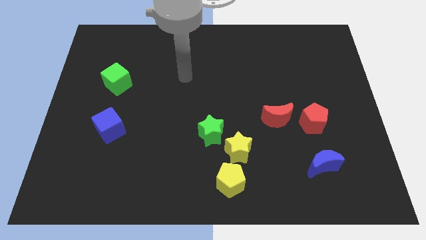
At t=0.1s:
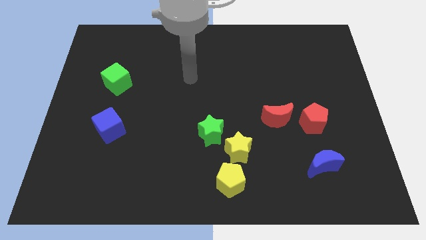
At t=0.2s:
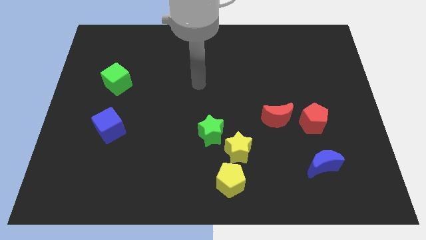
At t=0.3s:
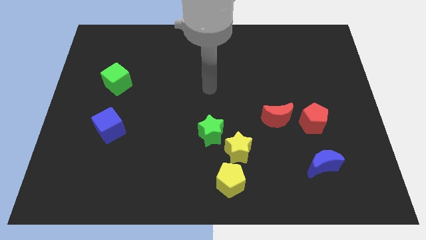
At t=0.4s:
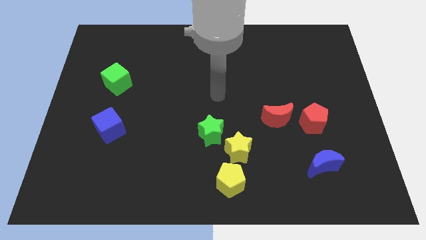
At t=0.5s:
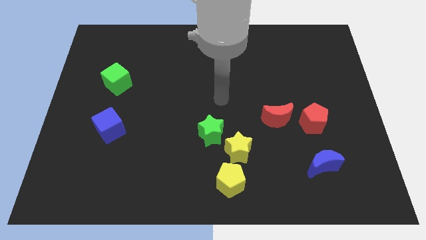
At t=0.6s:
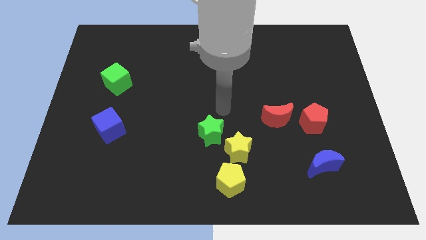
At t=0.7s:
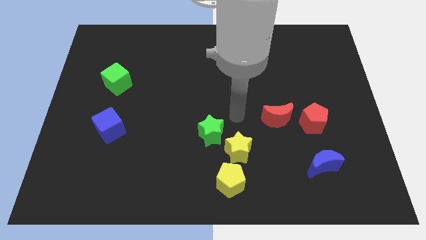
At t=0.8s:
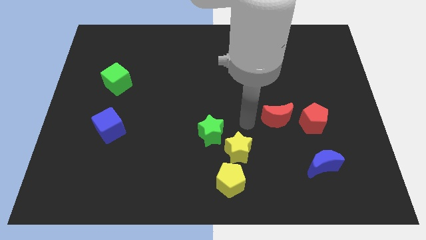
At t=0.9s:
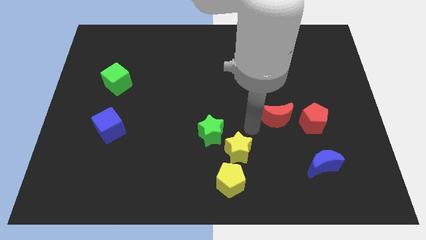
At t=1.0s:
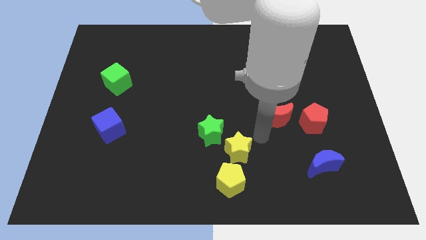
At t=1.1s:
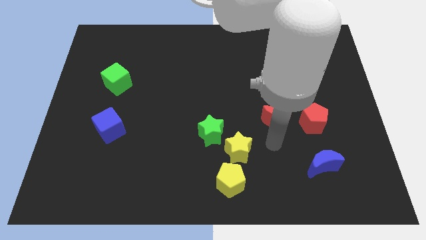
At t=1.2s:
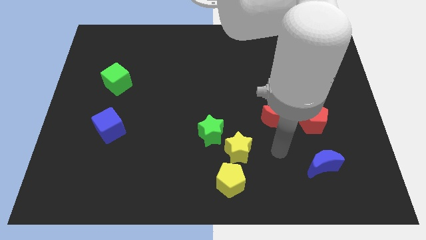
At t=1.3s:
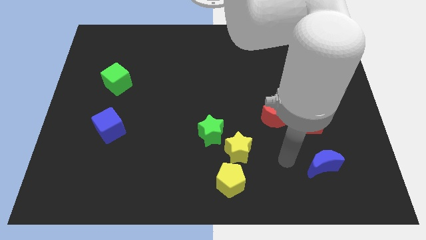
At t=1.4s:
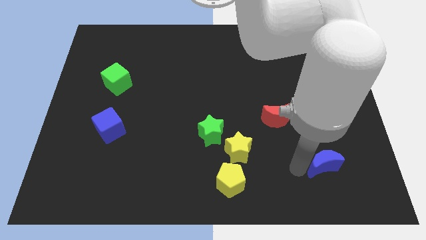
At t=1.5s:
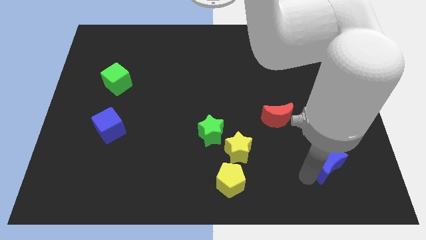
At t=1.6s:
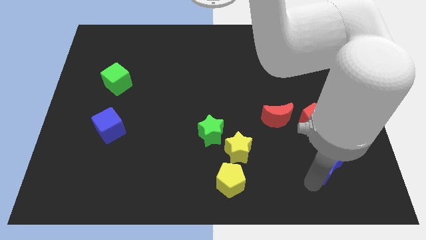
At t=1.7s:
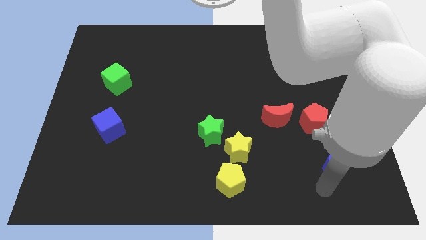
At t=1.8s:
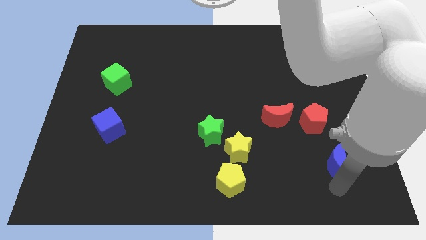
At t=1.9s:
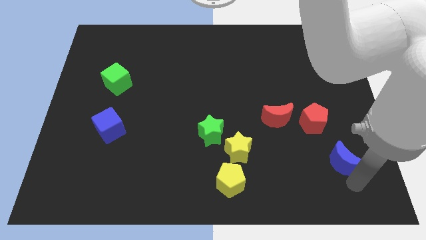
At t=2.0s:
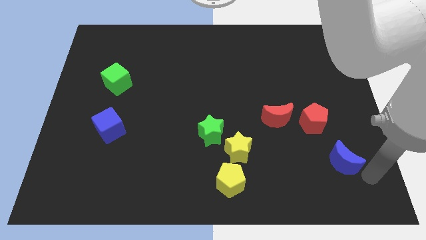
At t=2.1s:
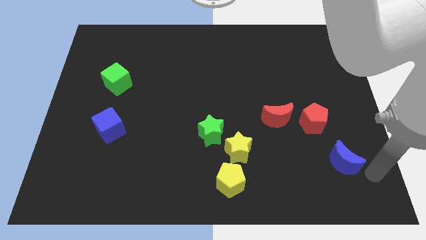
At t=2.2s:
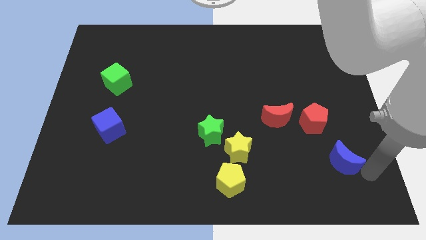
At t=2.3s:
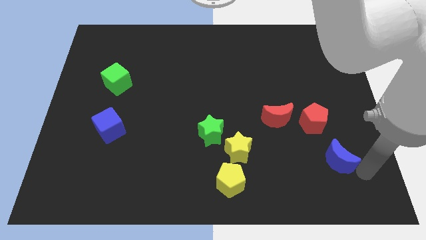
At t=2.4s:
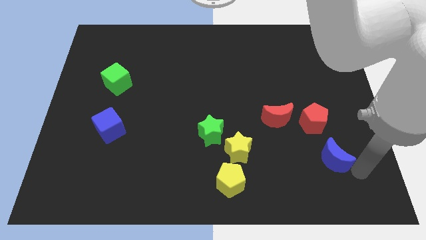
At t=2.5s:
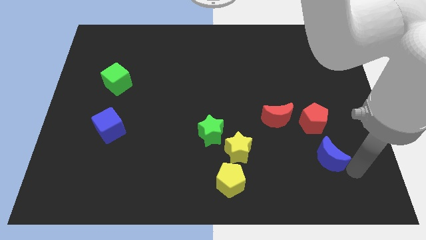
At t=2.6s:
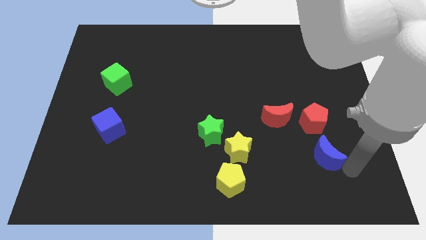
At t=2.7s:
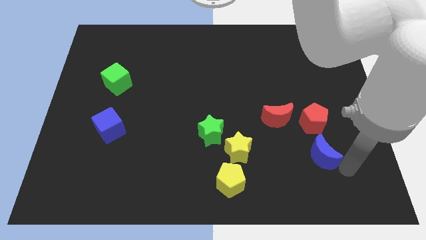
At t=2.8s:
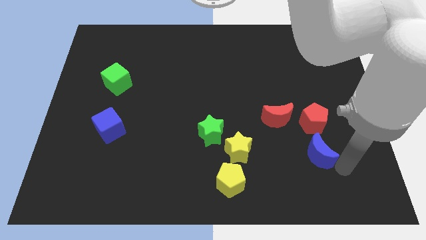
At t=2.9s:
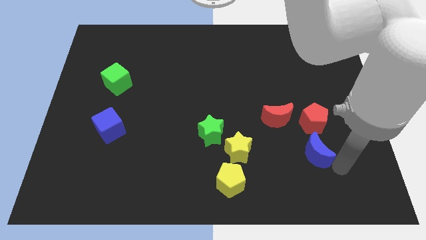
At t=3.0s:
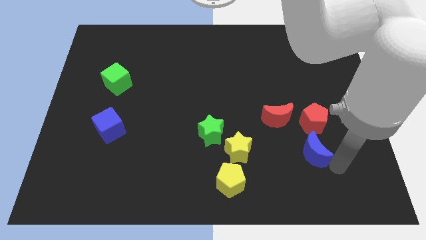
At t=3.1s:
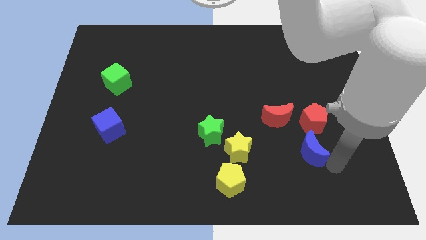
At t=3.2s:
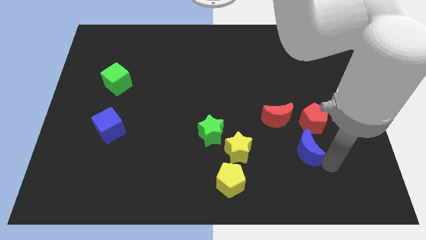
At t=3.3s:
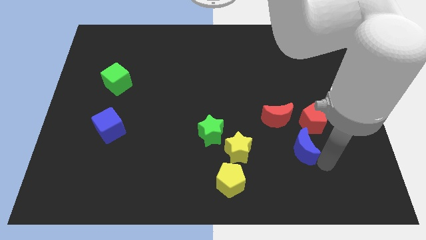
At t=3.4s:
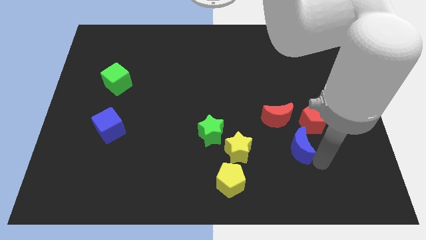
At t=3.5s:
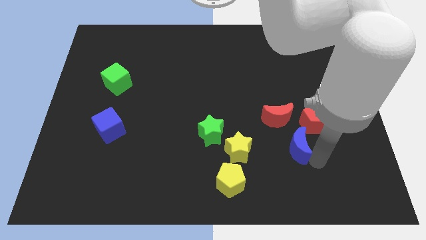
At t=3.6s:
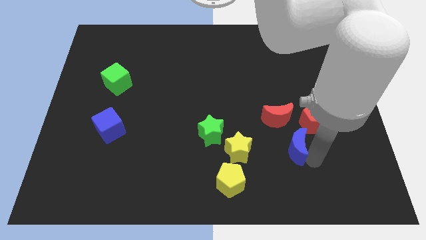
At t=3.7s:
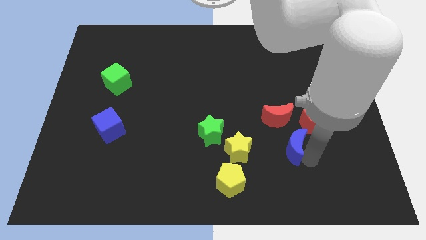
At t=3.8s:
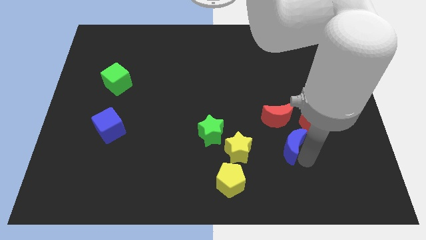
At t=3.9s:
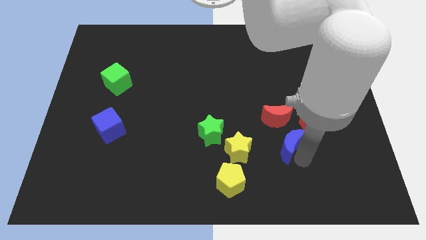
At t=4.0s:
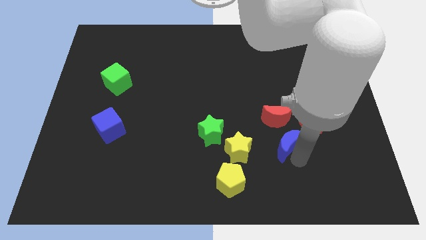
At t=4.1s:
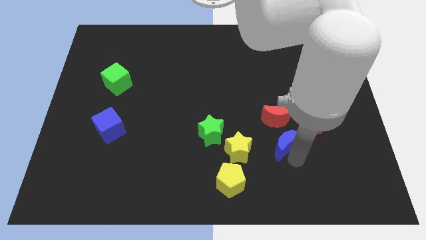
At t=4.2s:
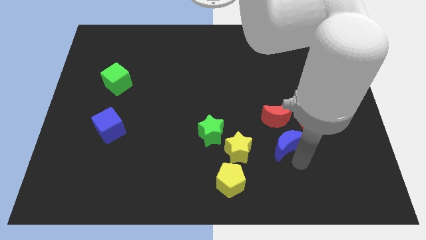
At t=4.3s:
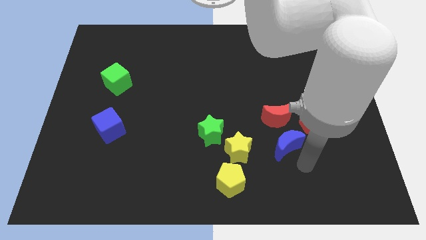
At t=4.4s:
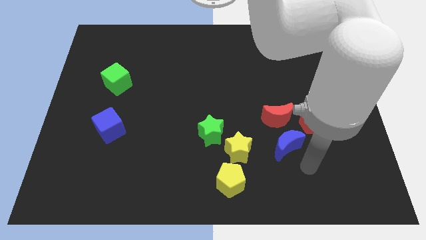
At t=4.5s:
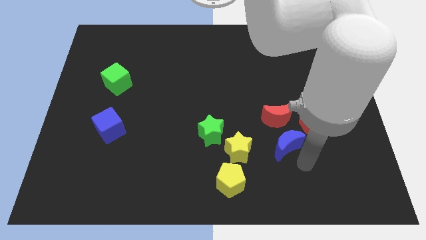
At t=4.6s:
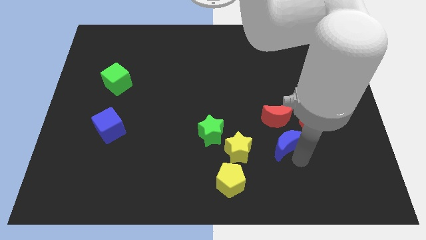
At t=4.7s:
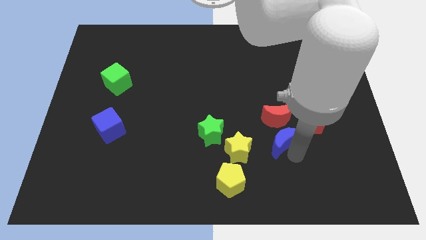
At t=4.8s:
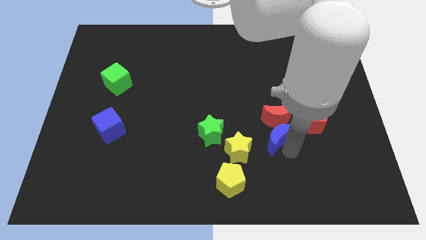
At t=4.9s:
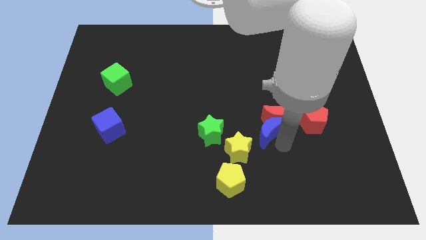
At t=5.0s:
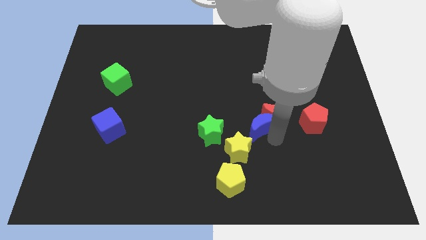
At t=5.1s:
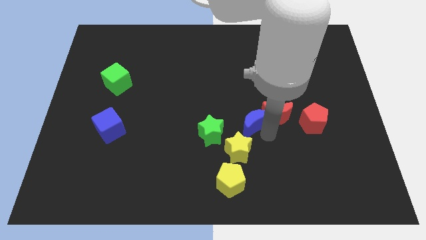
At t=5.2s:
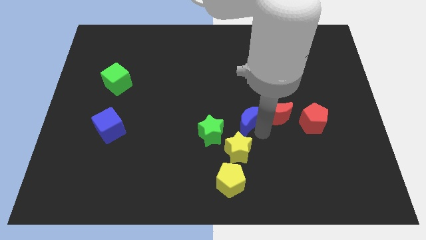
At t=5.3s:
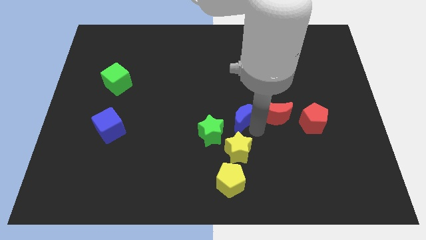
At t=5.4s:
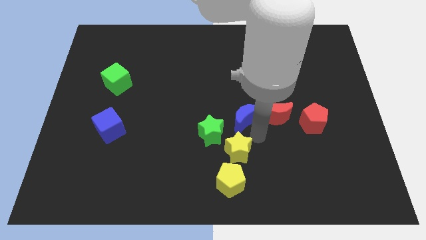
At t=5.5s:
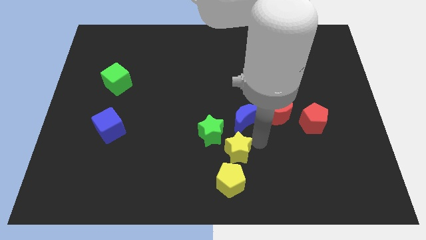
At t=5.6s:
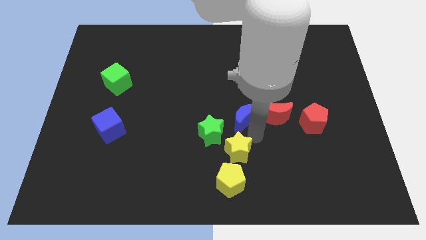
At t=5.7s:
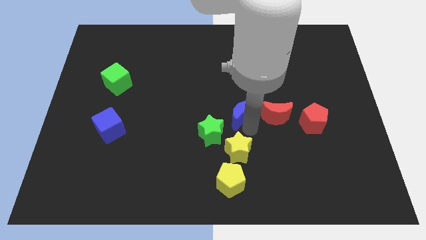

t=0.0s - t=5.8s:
push the blue moon diagonally up and to the left

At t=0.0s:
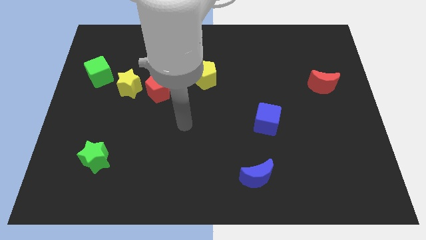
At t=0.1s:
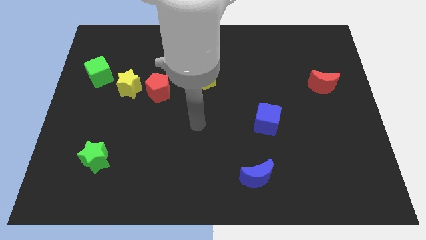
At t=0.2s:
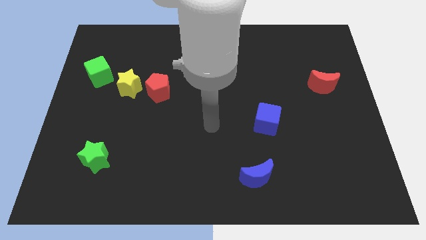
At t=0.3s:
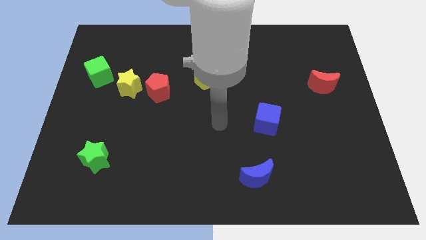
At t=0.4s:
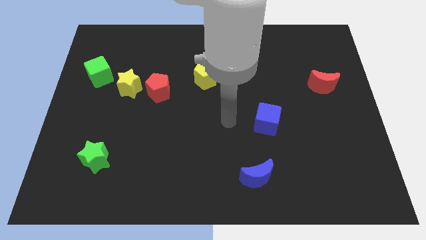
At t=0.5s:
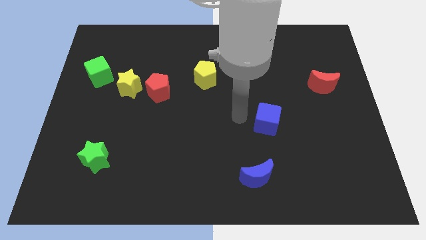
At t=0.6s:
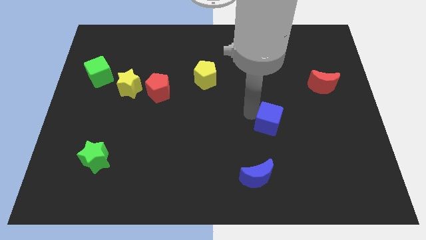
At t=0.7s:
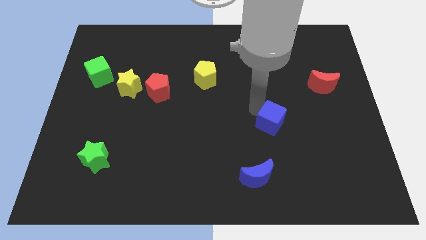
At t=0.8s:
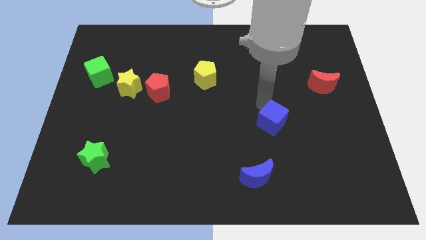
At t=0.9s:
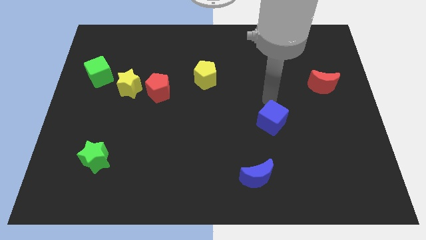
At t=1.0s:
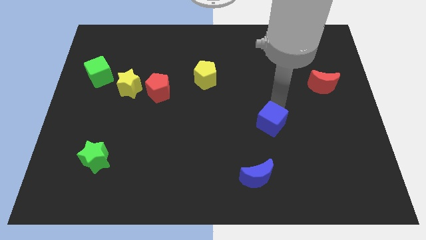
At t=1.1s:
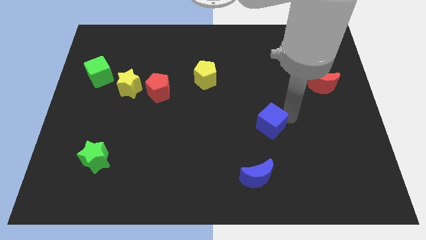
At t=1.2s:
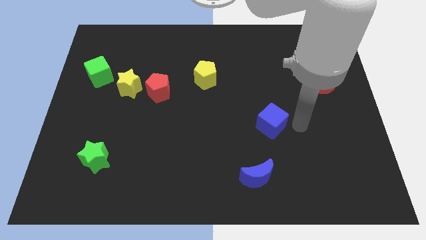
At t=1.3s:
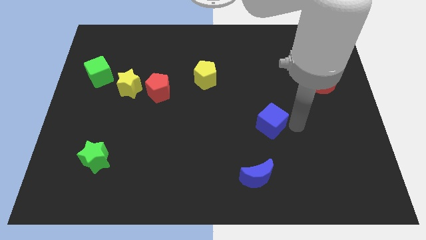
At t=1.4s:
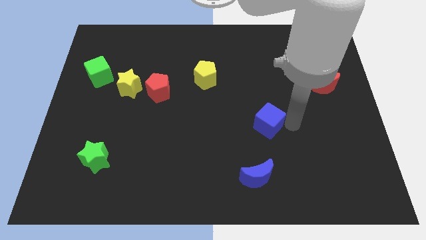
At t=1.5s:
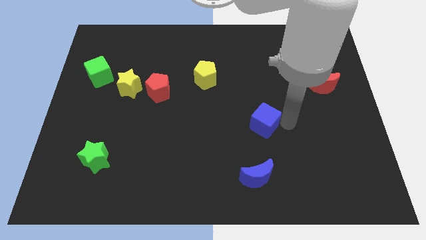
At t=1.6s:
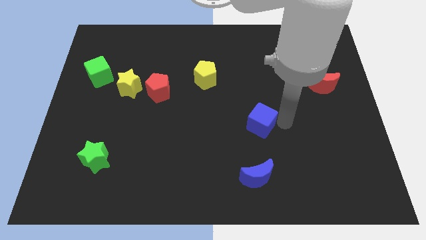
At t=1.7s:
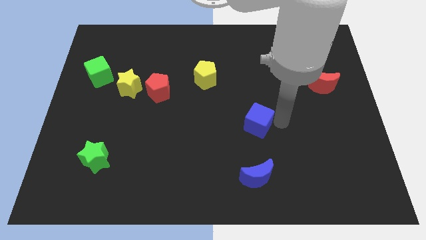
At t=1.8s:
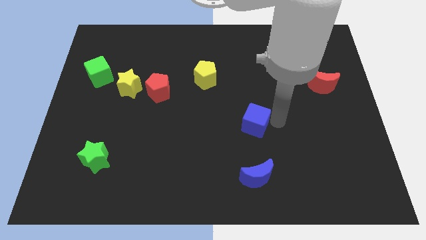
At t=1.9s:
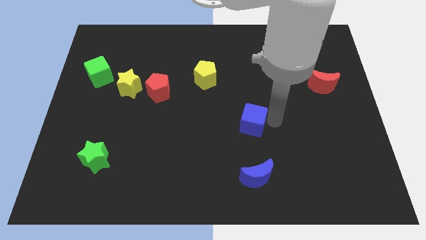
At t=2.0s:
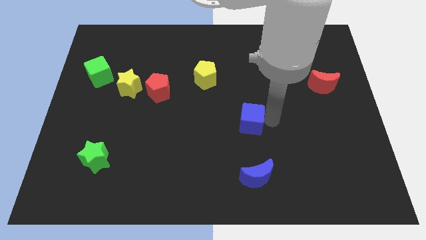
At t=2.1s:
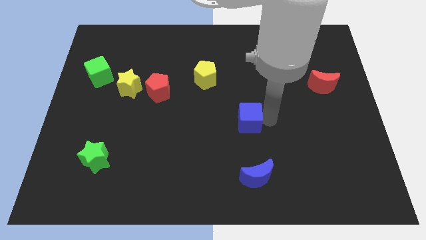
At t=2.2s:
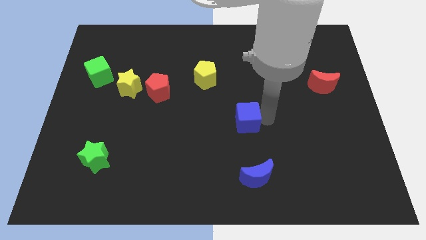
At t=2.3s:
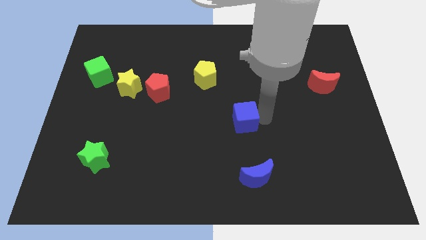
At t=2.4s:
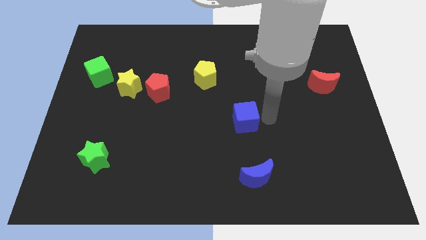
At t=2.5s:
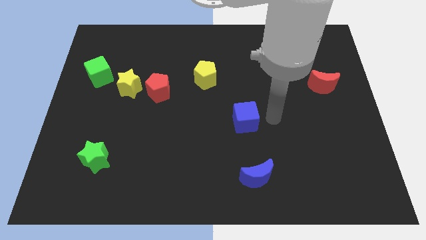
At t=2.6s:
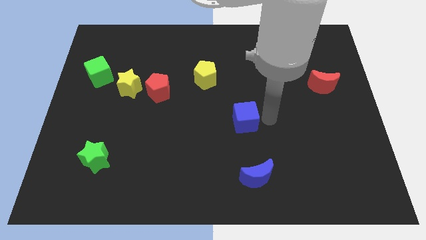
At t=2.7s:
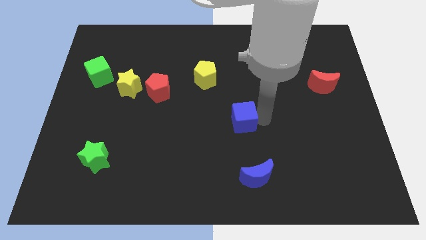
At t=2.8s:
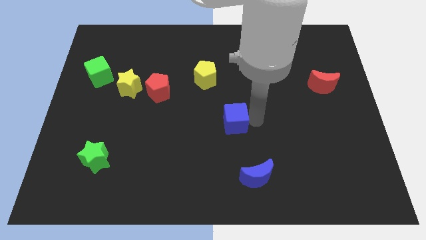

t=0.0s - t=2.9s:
slightly slide the blue cube left
